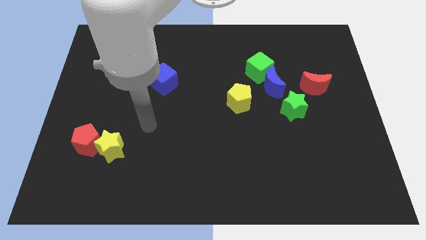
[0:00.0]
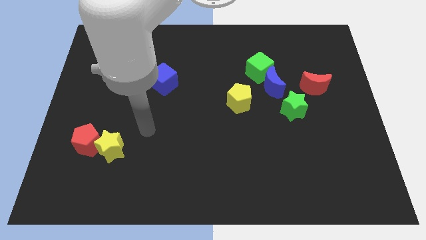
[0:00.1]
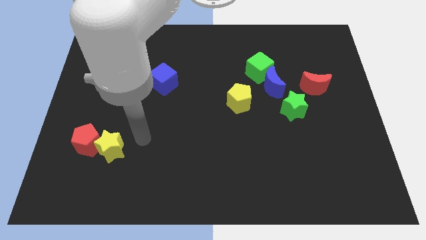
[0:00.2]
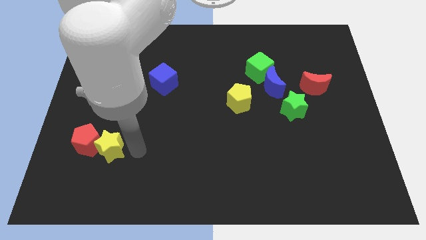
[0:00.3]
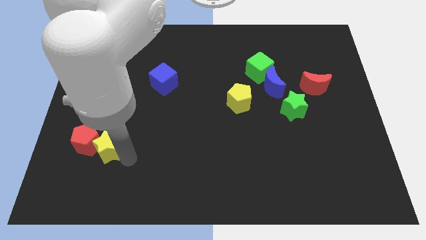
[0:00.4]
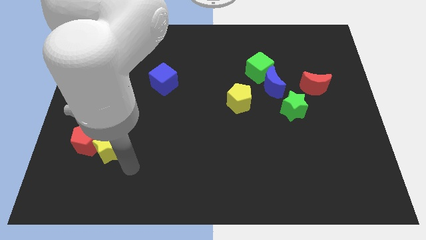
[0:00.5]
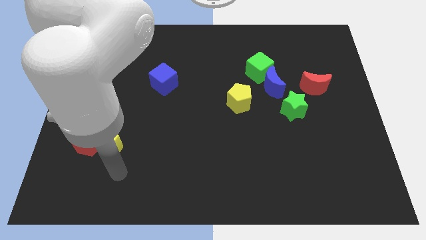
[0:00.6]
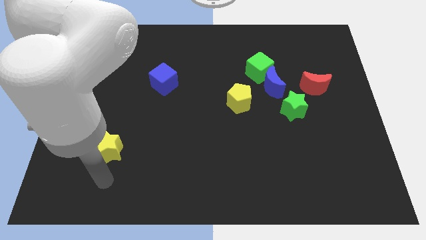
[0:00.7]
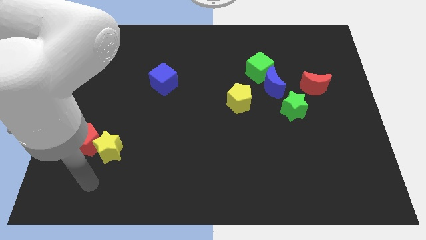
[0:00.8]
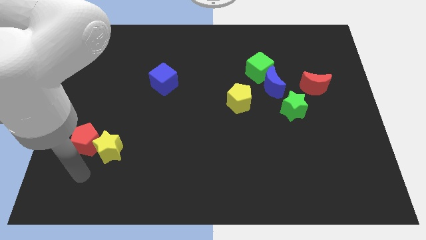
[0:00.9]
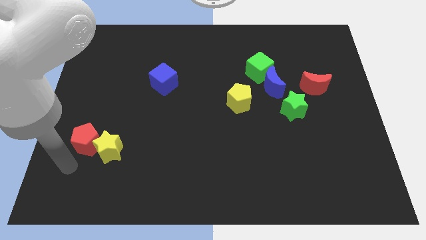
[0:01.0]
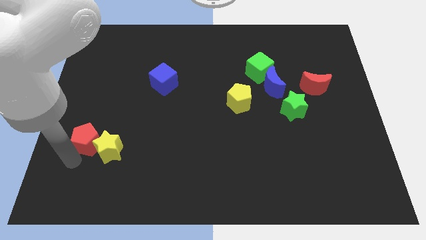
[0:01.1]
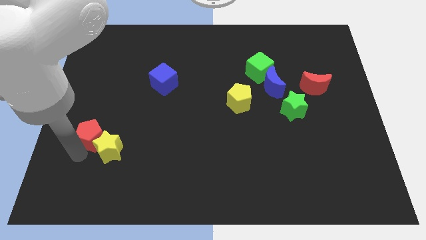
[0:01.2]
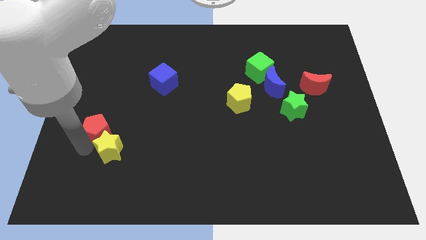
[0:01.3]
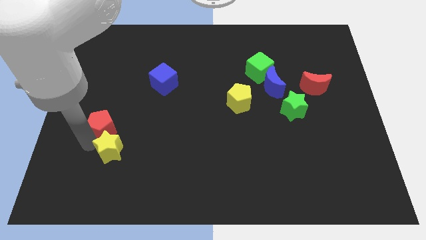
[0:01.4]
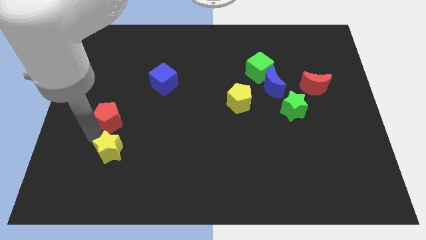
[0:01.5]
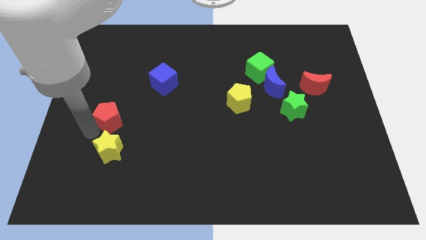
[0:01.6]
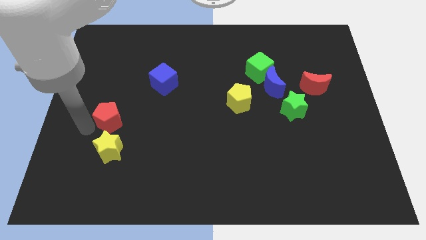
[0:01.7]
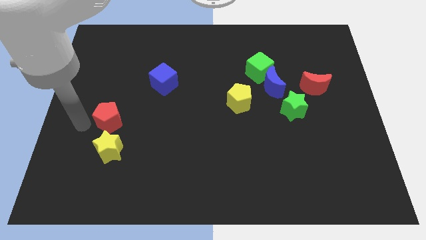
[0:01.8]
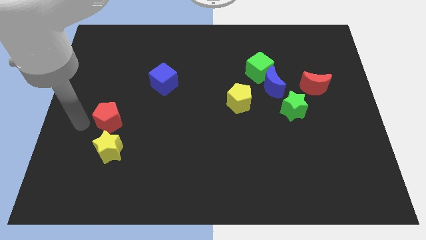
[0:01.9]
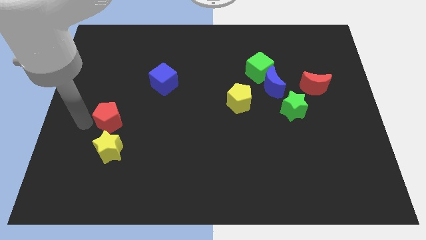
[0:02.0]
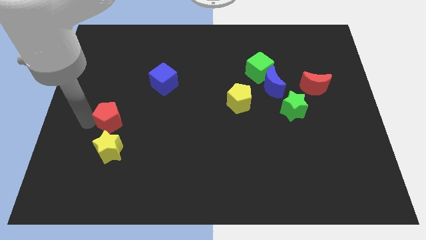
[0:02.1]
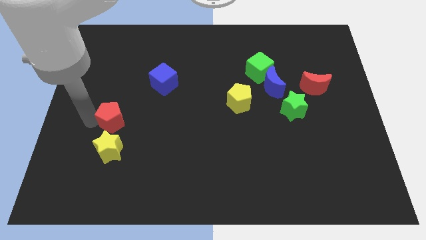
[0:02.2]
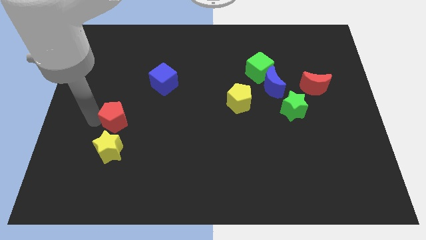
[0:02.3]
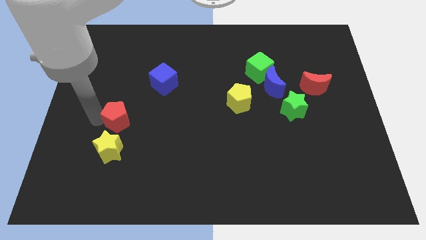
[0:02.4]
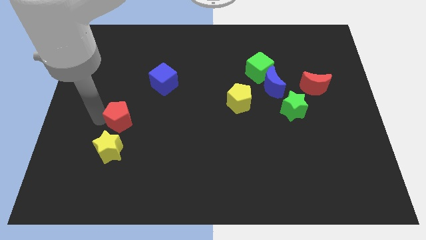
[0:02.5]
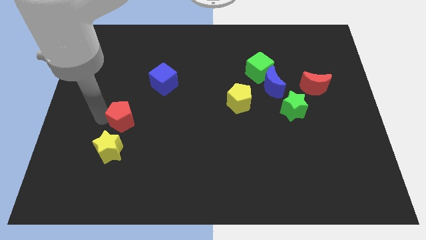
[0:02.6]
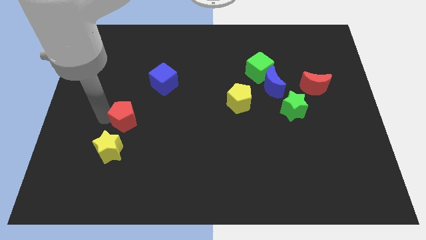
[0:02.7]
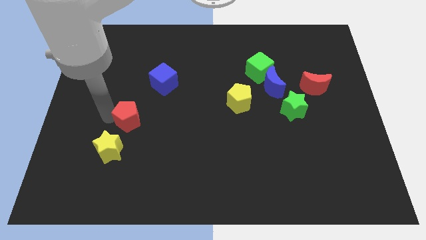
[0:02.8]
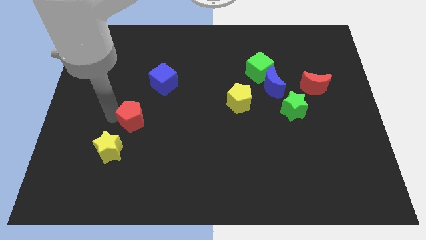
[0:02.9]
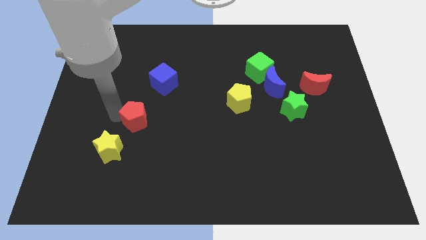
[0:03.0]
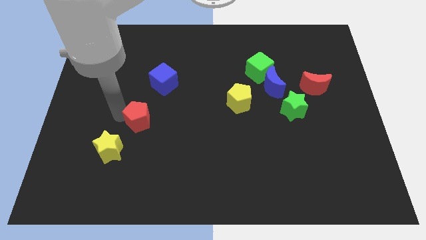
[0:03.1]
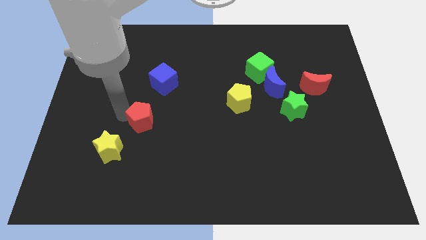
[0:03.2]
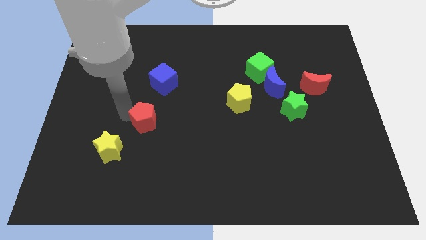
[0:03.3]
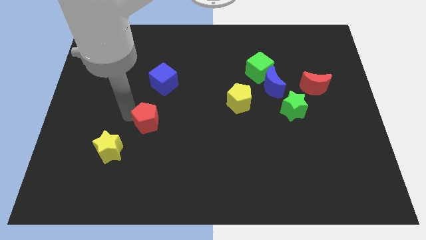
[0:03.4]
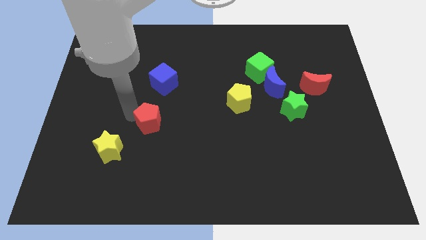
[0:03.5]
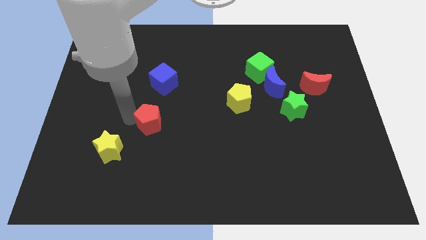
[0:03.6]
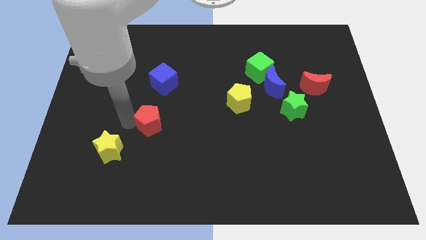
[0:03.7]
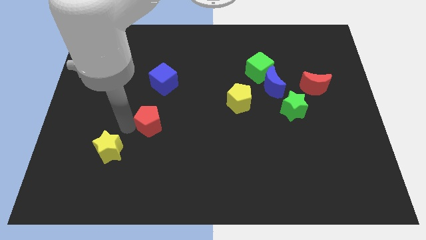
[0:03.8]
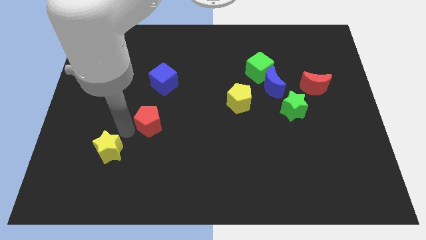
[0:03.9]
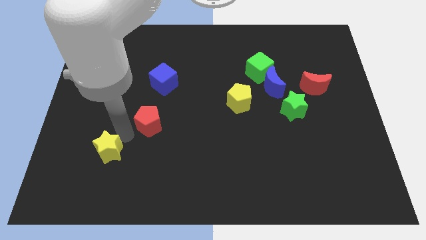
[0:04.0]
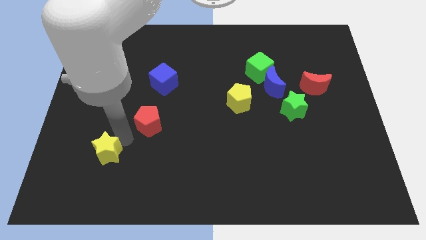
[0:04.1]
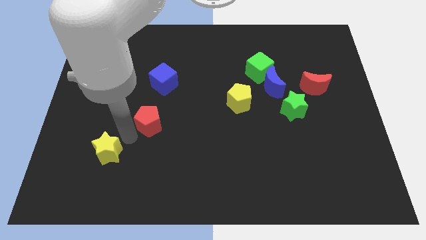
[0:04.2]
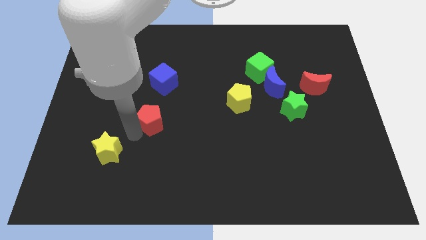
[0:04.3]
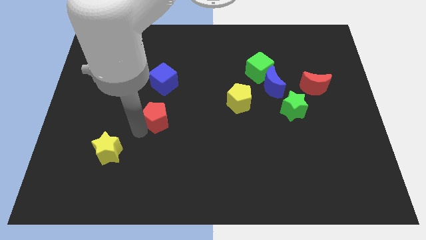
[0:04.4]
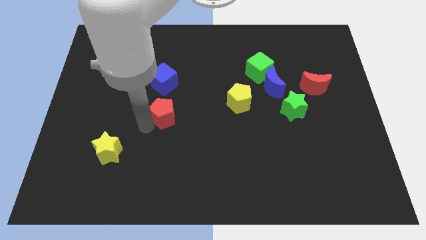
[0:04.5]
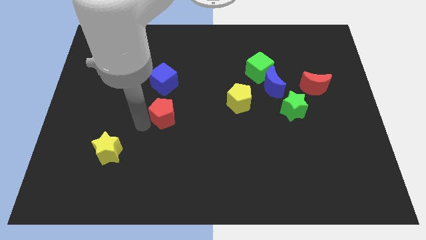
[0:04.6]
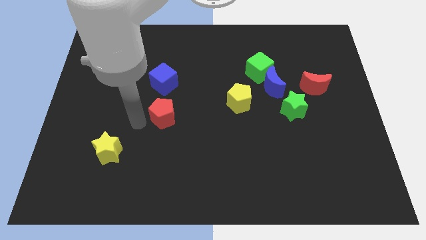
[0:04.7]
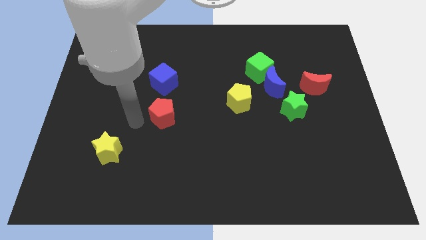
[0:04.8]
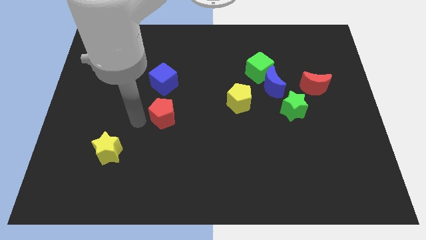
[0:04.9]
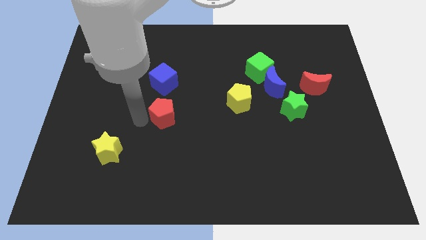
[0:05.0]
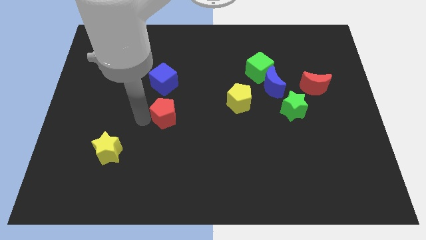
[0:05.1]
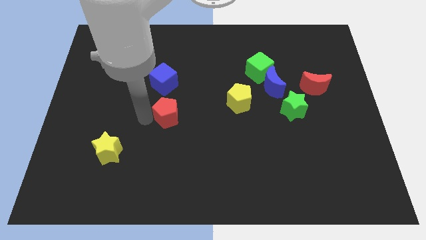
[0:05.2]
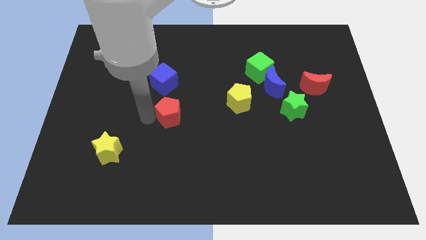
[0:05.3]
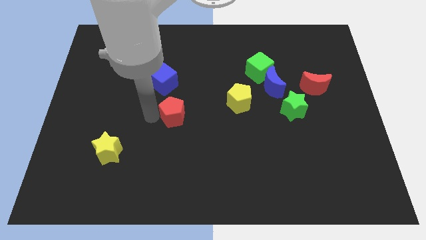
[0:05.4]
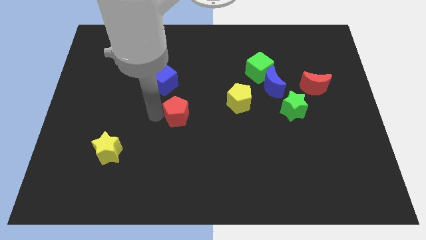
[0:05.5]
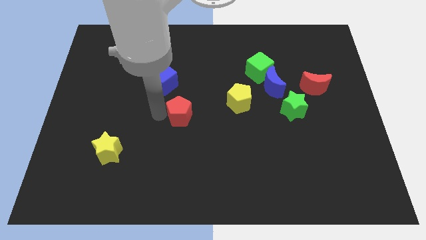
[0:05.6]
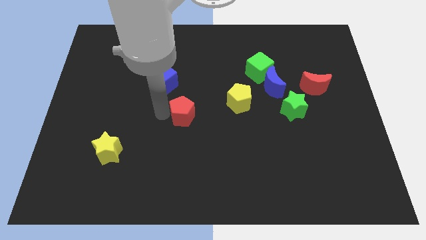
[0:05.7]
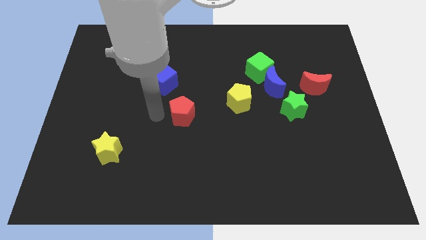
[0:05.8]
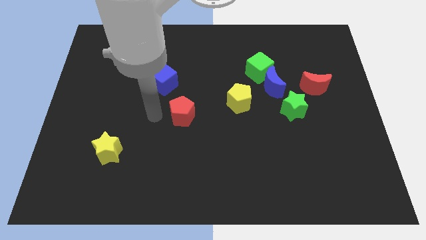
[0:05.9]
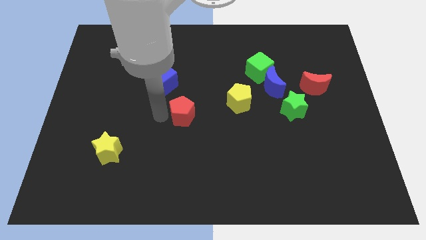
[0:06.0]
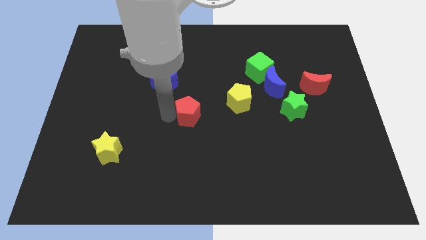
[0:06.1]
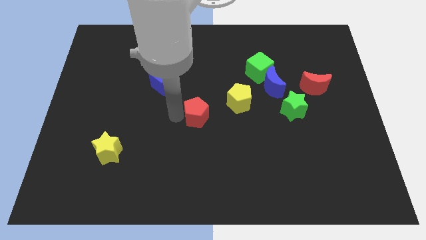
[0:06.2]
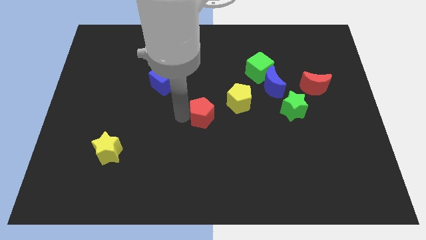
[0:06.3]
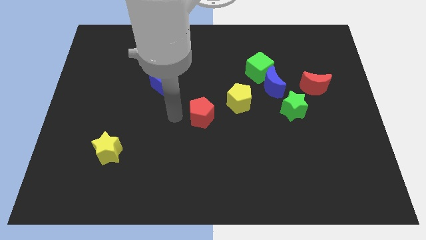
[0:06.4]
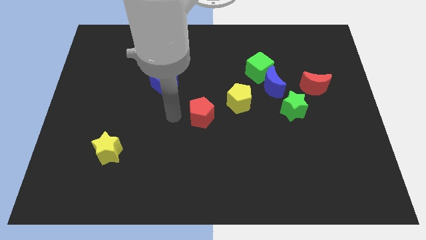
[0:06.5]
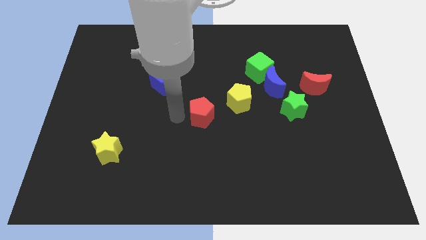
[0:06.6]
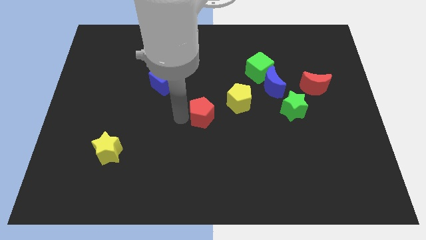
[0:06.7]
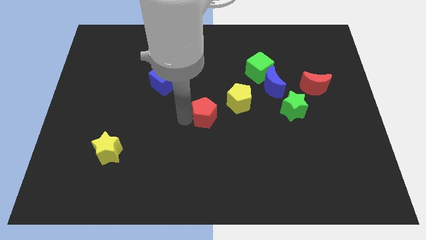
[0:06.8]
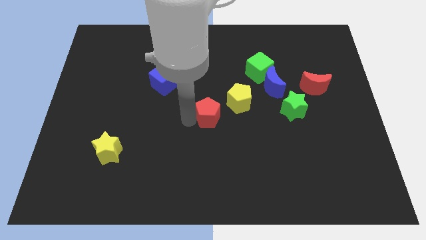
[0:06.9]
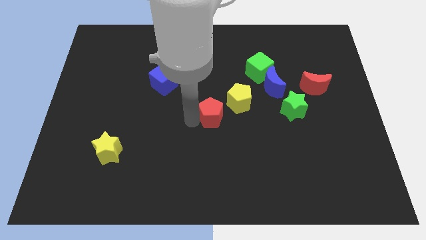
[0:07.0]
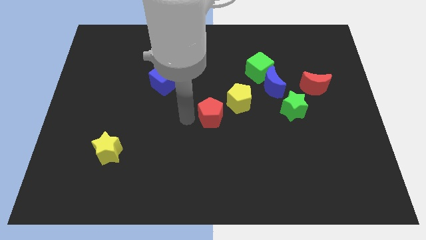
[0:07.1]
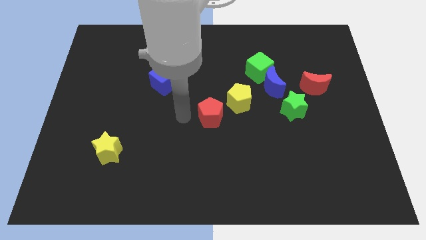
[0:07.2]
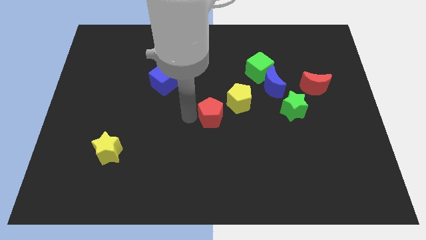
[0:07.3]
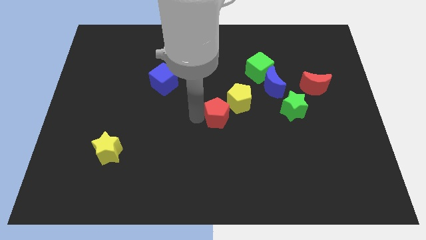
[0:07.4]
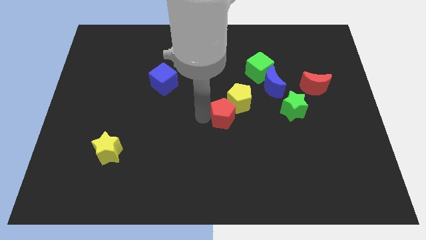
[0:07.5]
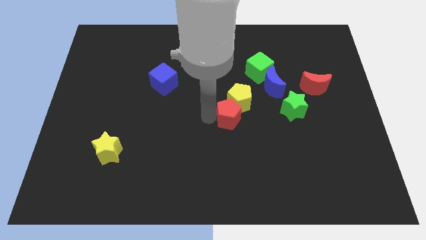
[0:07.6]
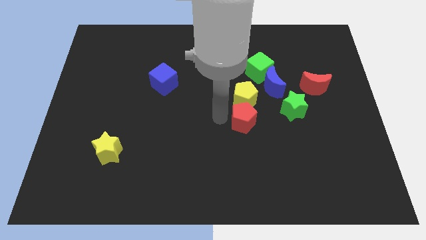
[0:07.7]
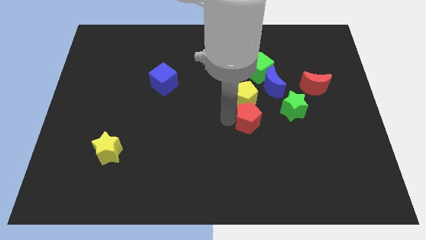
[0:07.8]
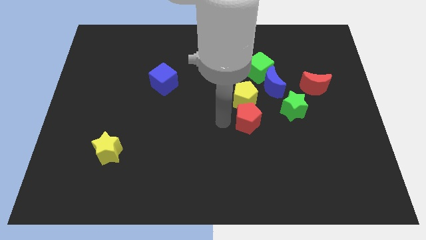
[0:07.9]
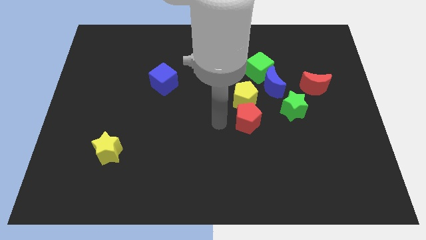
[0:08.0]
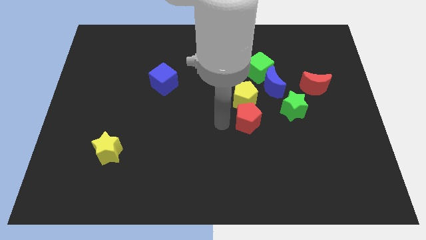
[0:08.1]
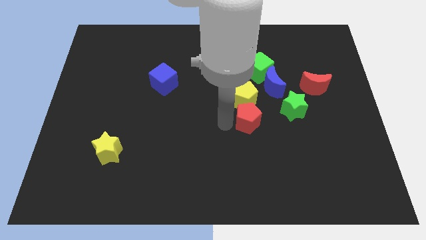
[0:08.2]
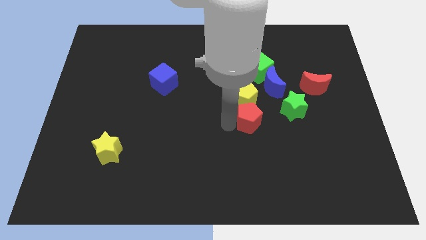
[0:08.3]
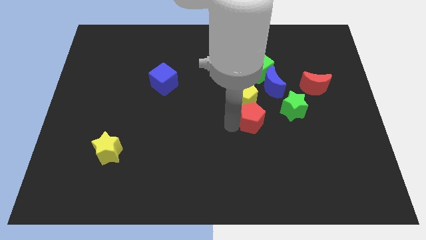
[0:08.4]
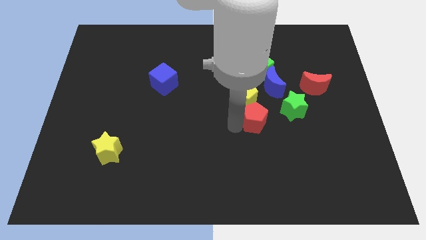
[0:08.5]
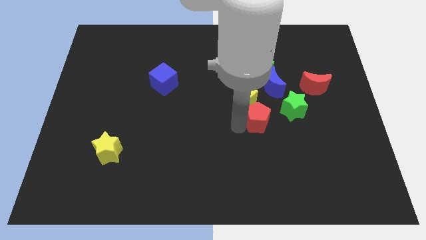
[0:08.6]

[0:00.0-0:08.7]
push the red pentagon below the blue moon
